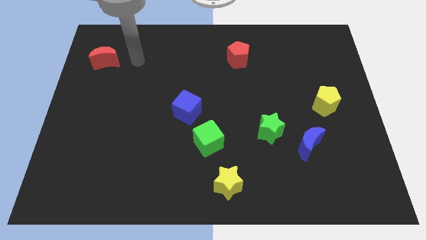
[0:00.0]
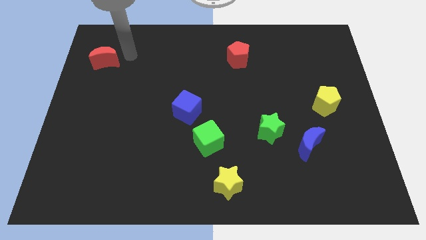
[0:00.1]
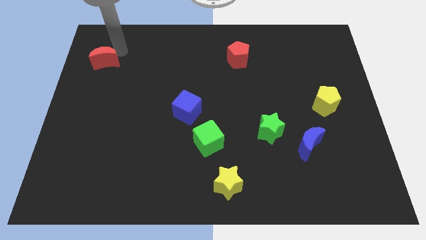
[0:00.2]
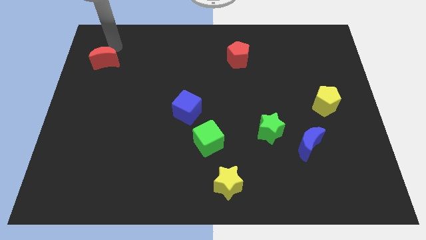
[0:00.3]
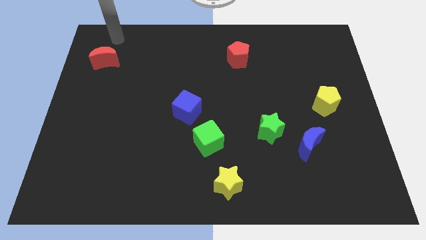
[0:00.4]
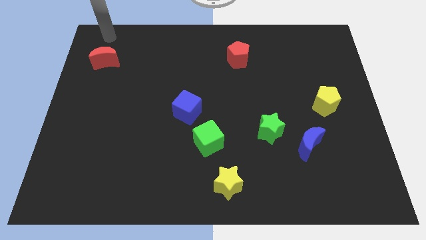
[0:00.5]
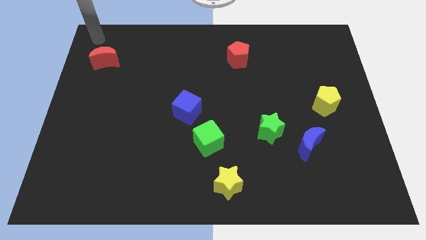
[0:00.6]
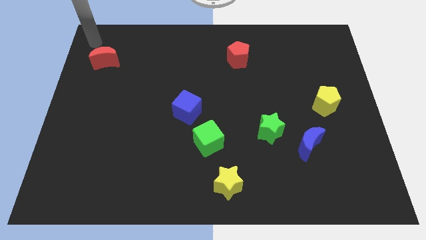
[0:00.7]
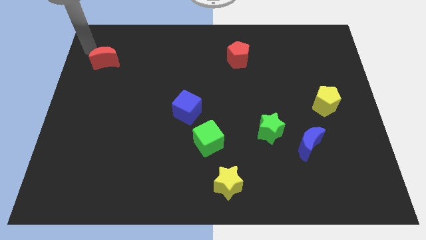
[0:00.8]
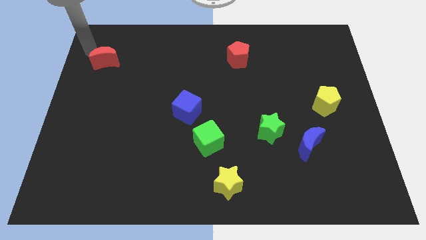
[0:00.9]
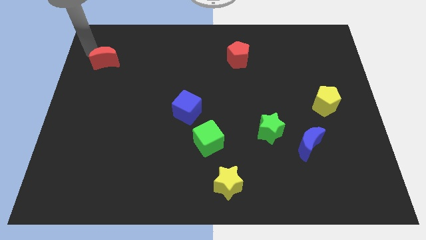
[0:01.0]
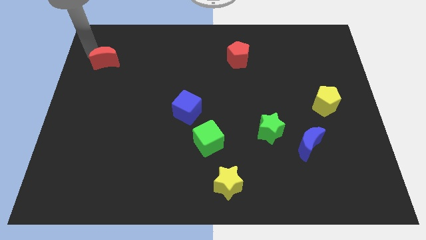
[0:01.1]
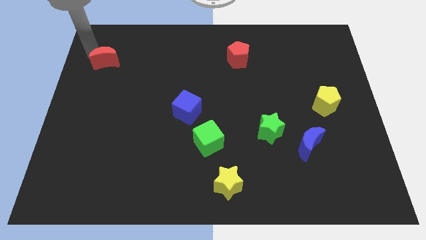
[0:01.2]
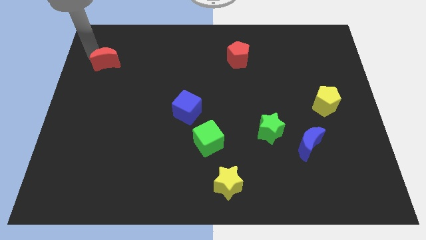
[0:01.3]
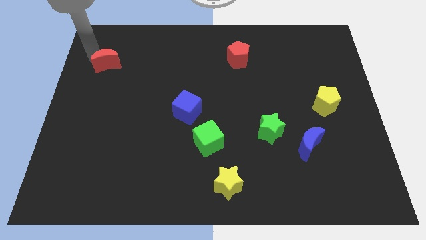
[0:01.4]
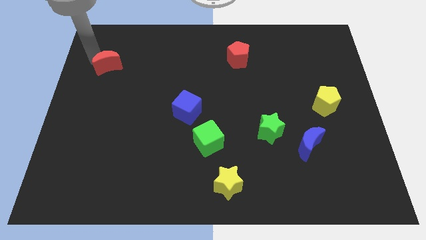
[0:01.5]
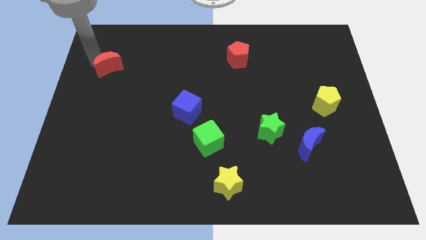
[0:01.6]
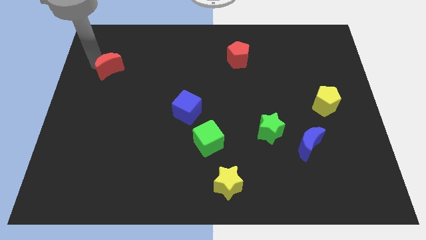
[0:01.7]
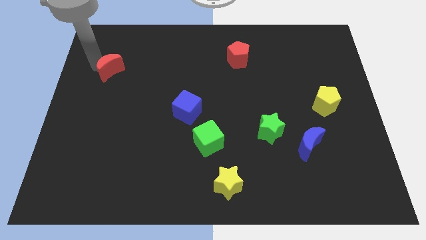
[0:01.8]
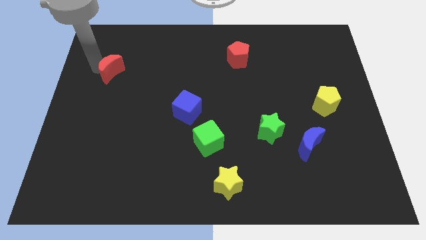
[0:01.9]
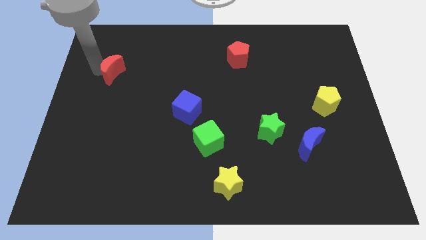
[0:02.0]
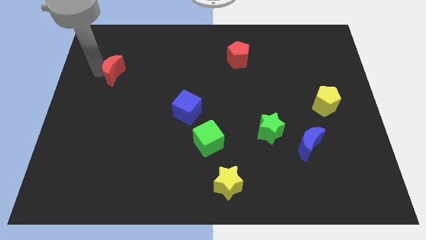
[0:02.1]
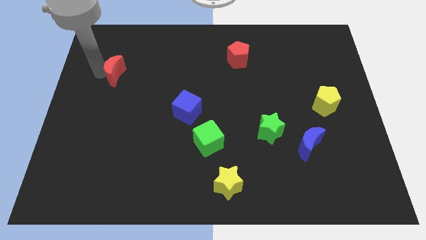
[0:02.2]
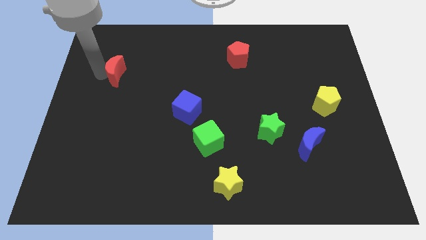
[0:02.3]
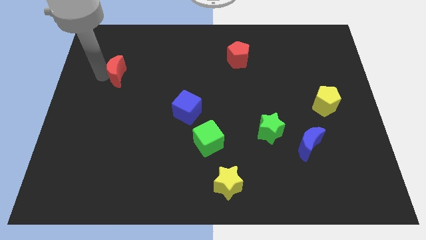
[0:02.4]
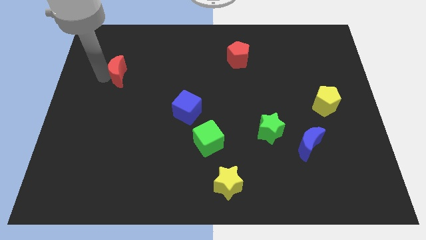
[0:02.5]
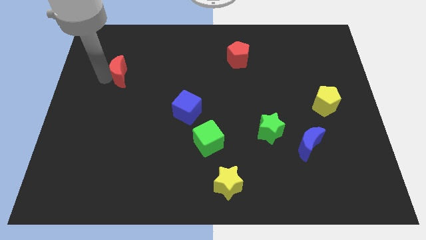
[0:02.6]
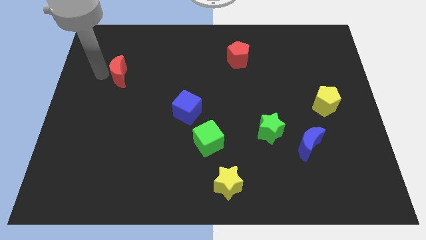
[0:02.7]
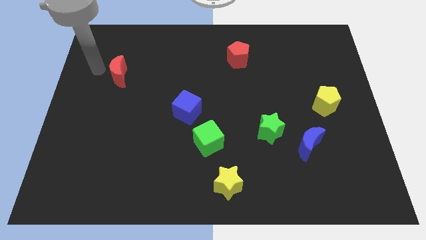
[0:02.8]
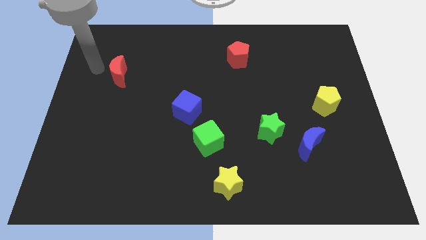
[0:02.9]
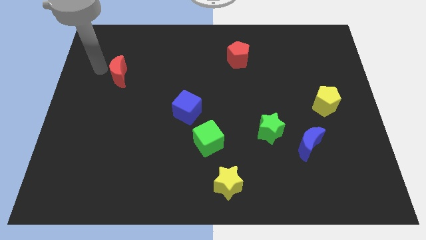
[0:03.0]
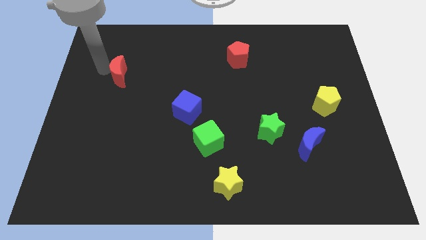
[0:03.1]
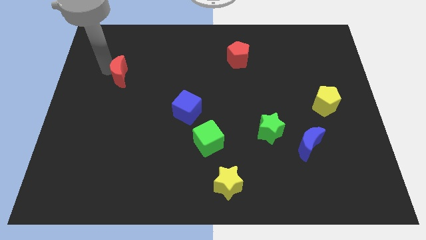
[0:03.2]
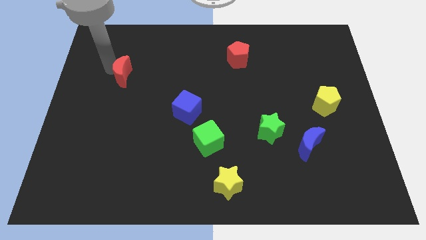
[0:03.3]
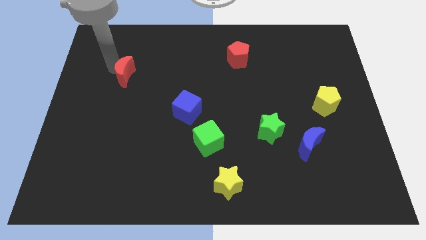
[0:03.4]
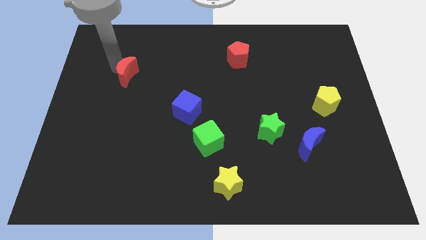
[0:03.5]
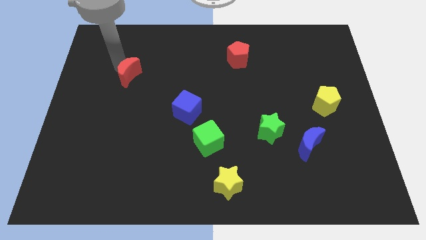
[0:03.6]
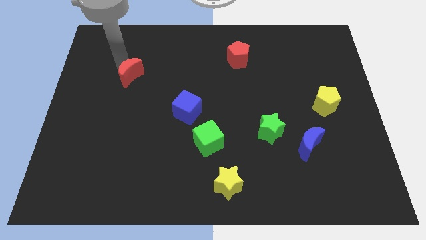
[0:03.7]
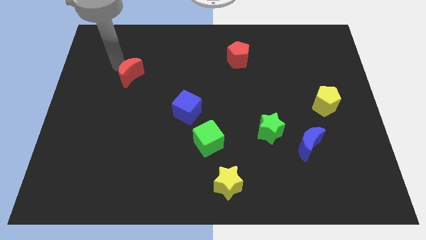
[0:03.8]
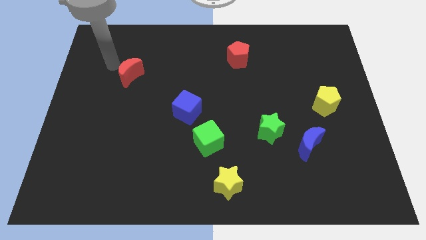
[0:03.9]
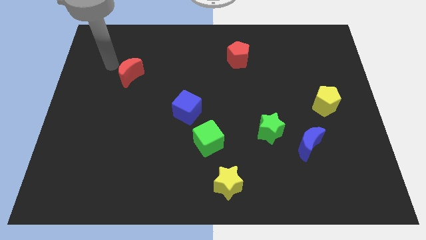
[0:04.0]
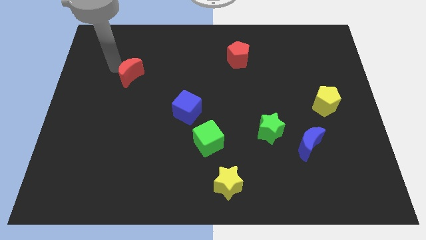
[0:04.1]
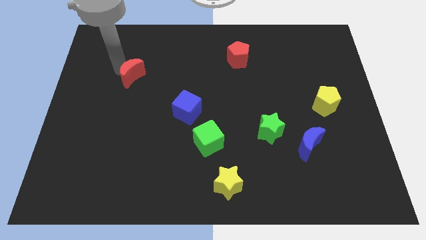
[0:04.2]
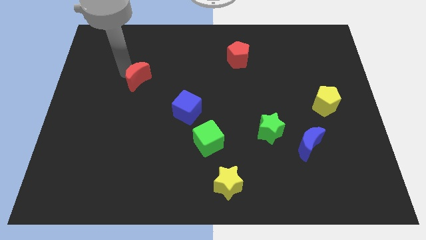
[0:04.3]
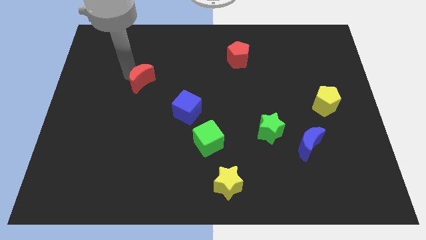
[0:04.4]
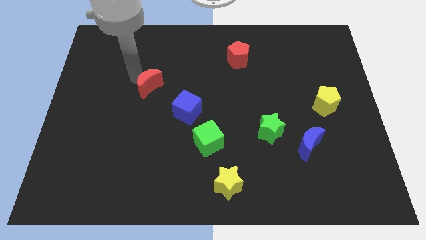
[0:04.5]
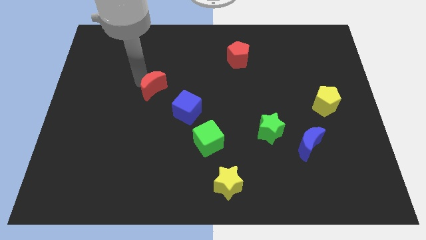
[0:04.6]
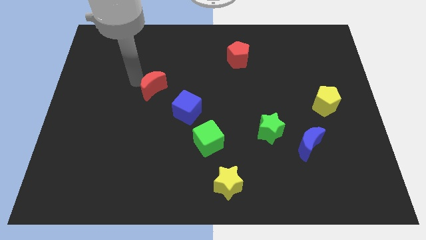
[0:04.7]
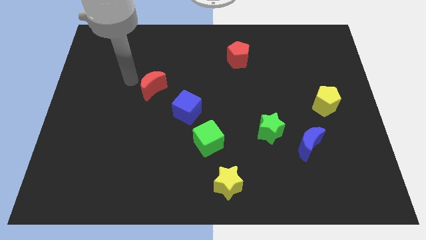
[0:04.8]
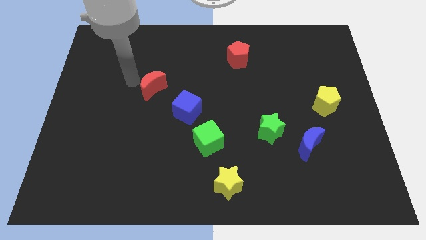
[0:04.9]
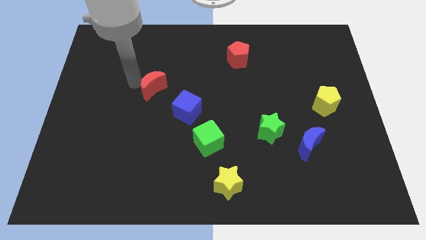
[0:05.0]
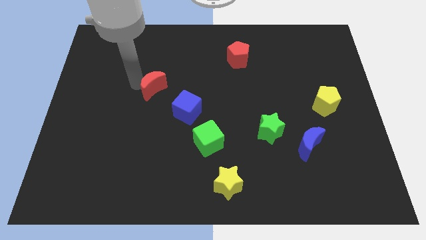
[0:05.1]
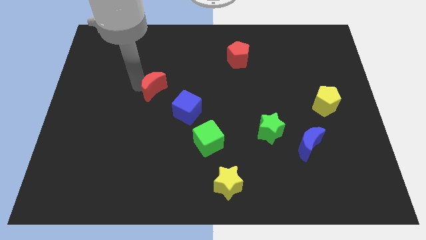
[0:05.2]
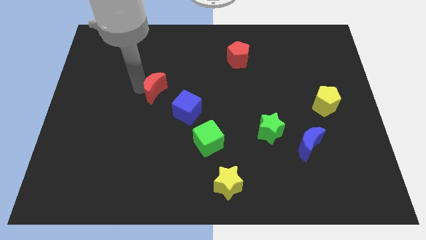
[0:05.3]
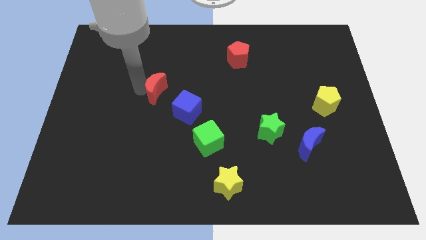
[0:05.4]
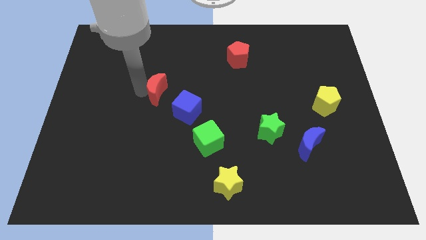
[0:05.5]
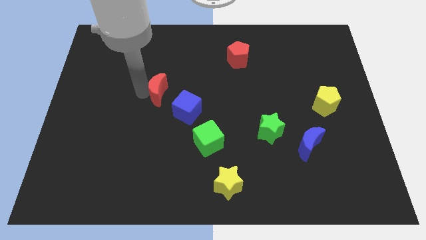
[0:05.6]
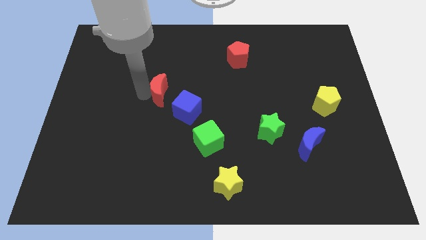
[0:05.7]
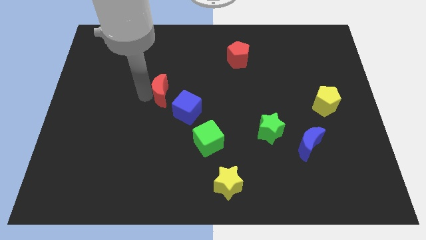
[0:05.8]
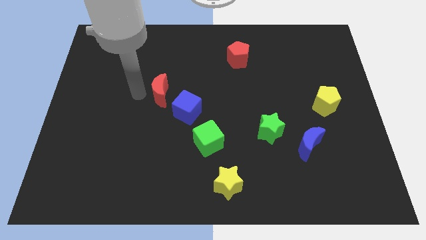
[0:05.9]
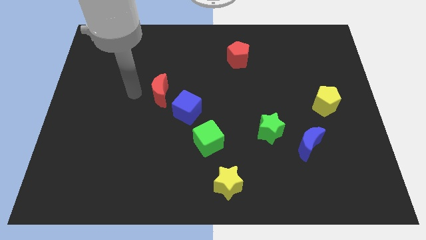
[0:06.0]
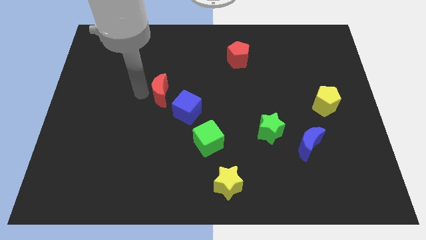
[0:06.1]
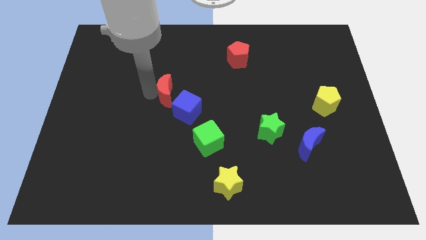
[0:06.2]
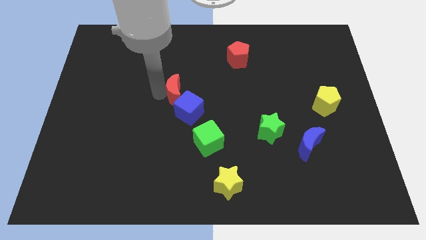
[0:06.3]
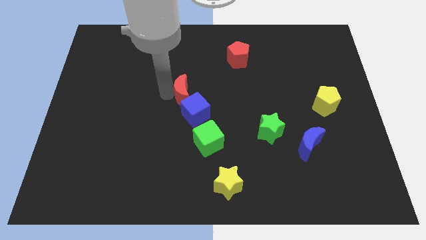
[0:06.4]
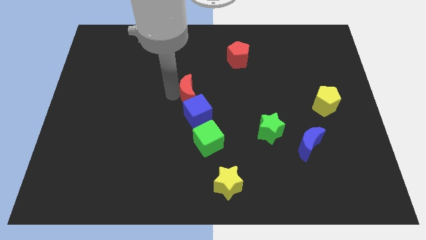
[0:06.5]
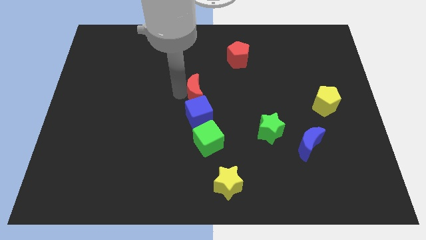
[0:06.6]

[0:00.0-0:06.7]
move the red moon above the green cube

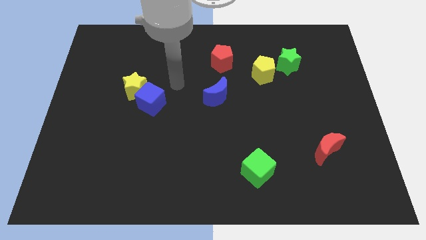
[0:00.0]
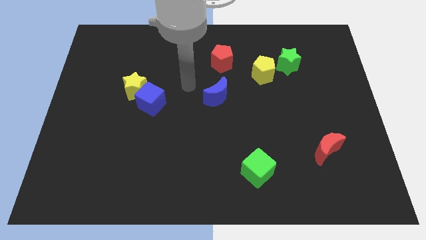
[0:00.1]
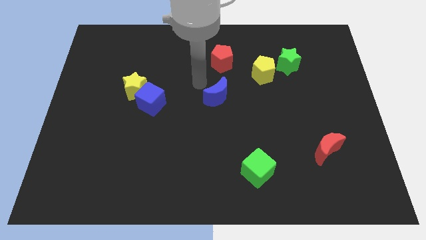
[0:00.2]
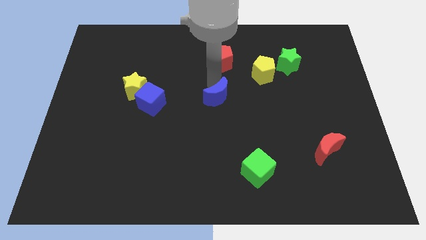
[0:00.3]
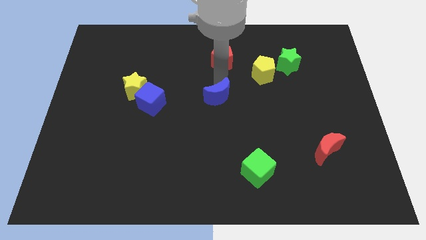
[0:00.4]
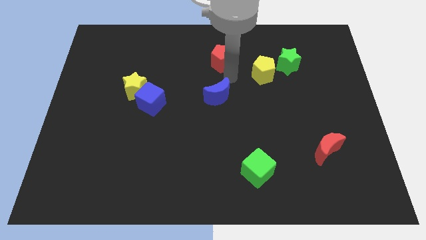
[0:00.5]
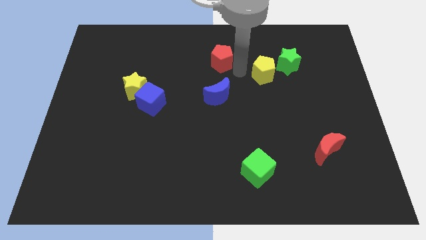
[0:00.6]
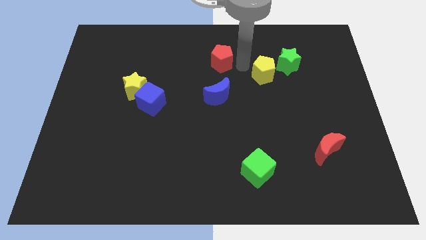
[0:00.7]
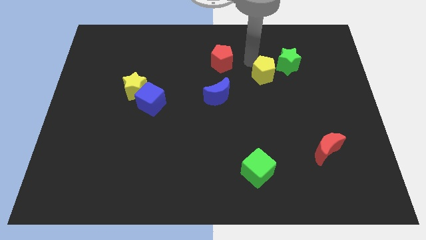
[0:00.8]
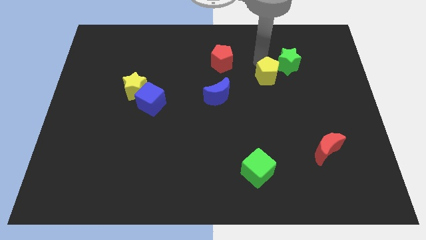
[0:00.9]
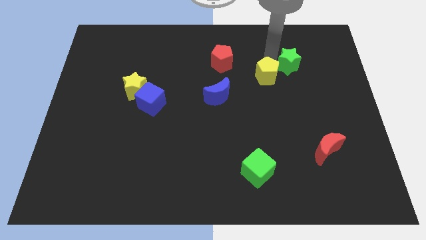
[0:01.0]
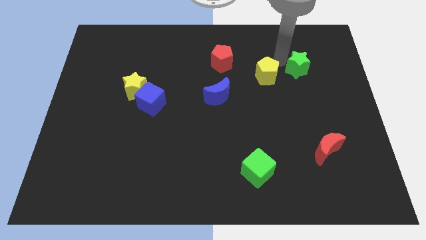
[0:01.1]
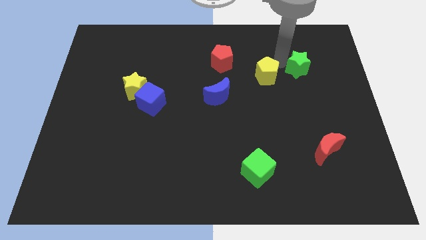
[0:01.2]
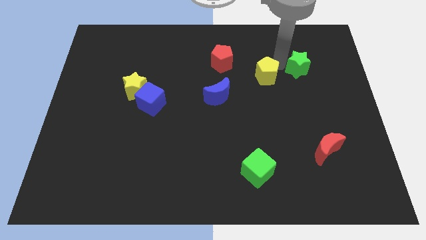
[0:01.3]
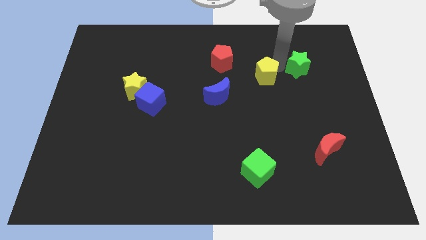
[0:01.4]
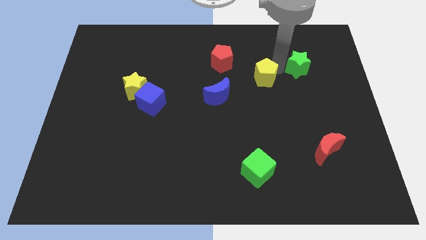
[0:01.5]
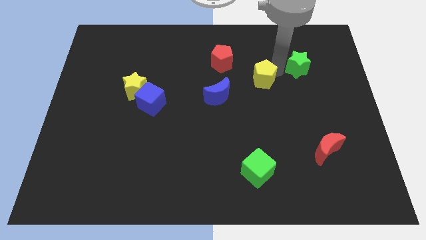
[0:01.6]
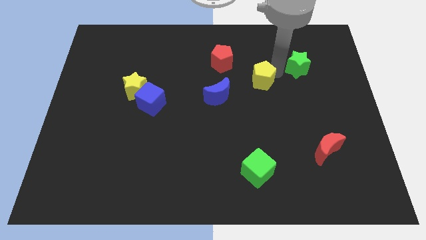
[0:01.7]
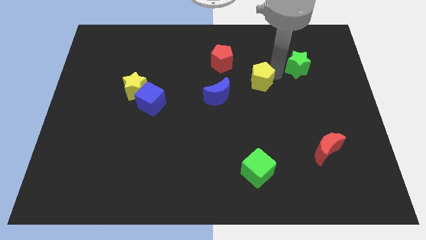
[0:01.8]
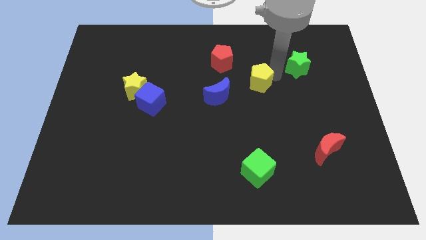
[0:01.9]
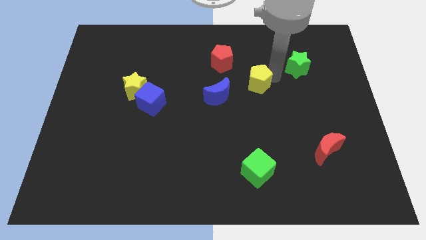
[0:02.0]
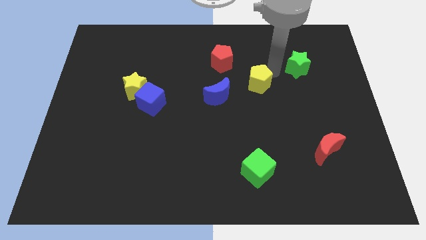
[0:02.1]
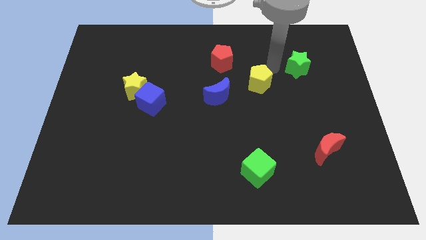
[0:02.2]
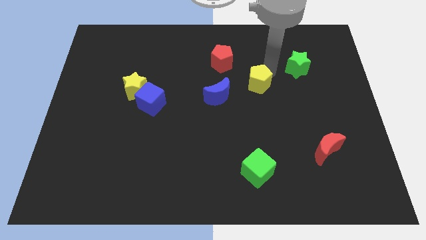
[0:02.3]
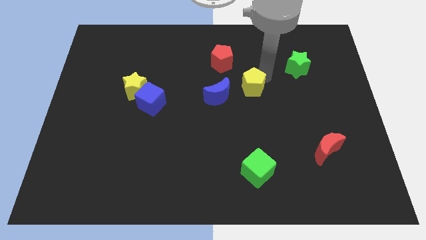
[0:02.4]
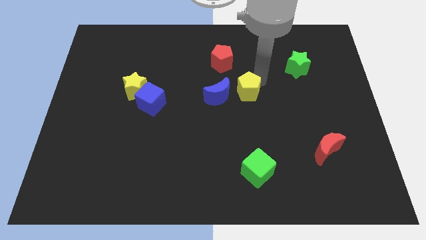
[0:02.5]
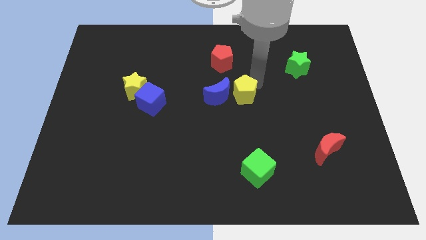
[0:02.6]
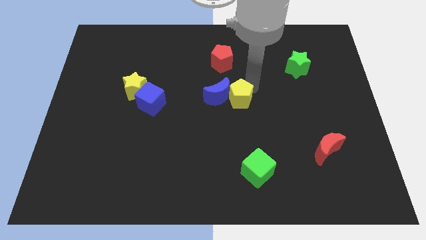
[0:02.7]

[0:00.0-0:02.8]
push the yellow pentagon to the bottom side of the red pentagon
